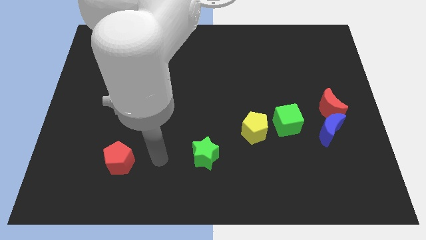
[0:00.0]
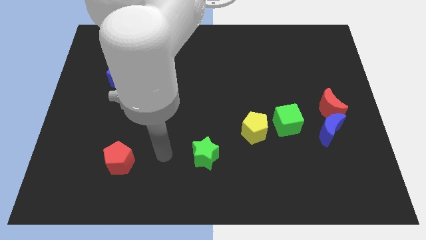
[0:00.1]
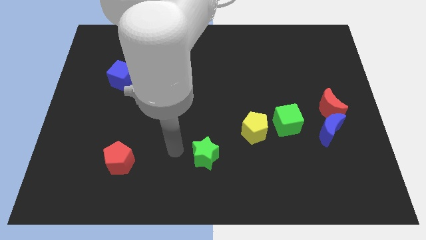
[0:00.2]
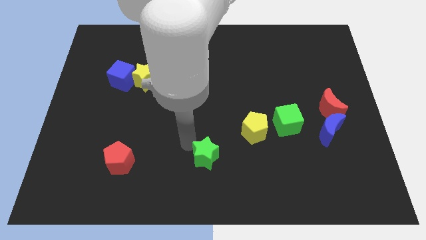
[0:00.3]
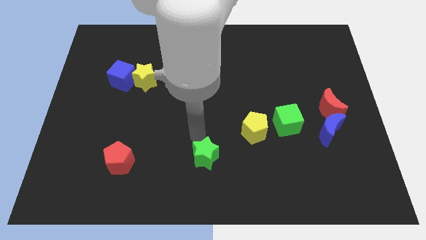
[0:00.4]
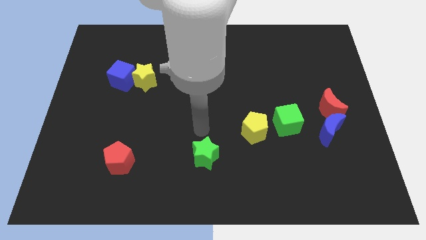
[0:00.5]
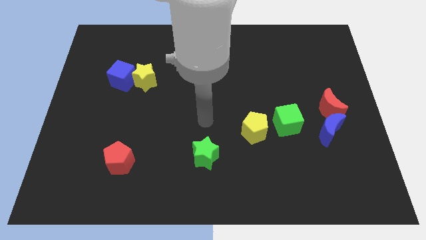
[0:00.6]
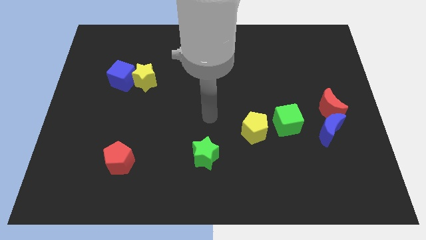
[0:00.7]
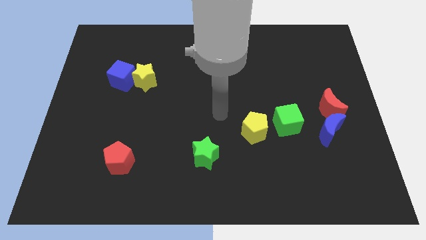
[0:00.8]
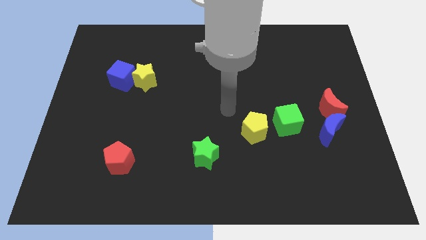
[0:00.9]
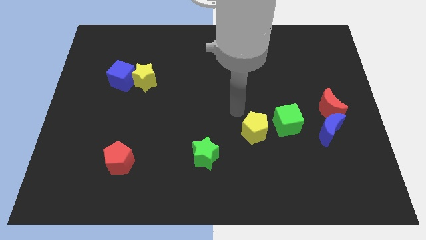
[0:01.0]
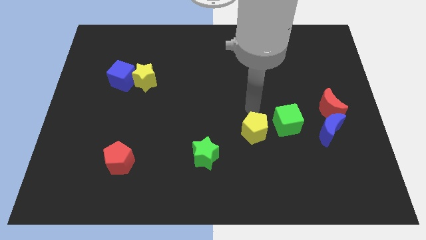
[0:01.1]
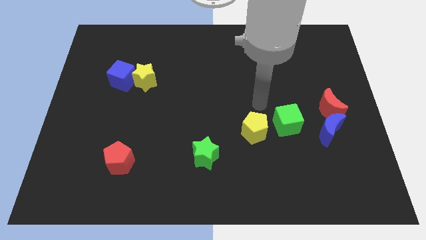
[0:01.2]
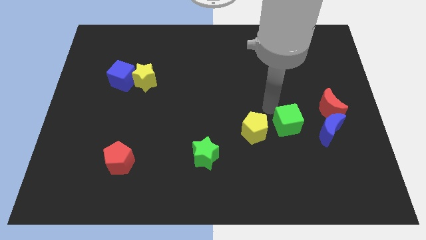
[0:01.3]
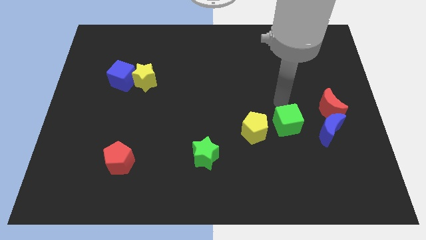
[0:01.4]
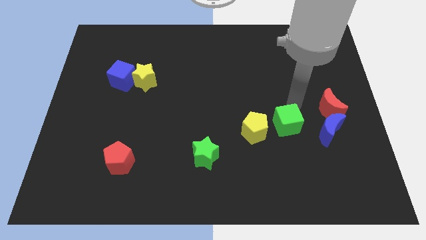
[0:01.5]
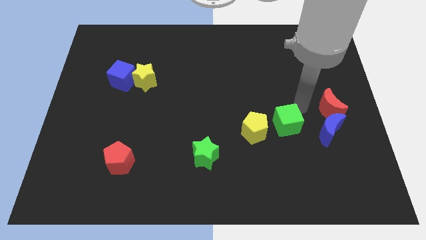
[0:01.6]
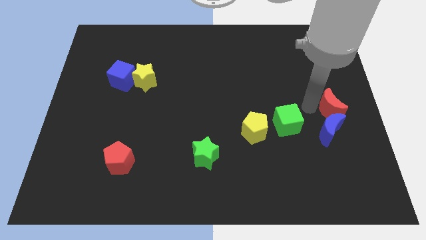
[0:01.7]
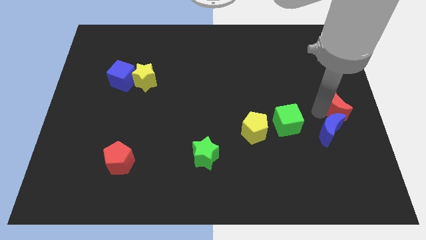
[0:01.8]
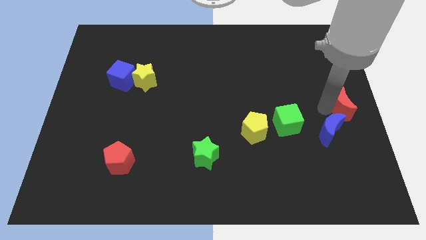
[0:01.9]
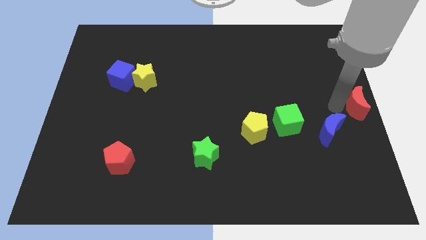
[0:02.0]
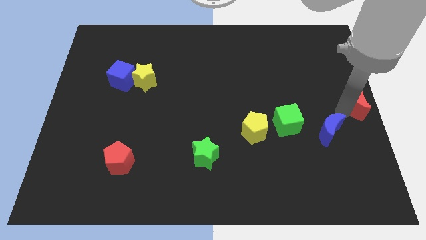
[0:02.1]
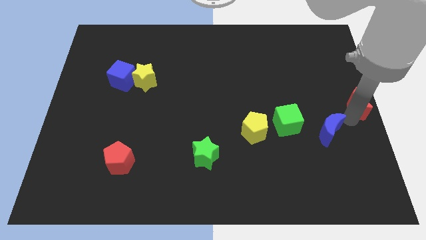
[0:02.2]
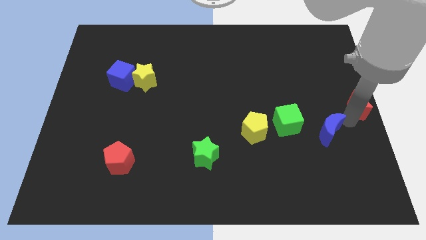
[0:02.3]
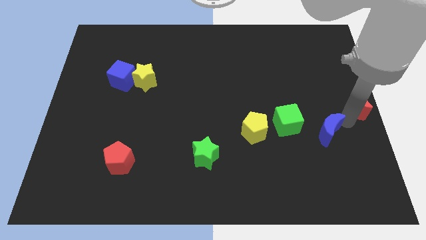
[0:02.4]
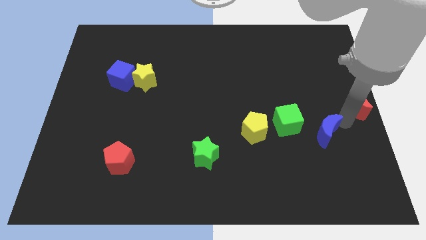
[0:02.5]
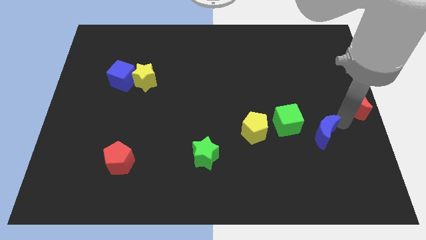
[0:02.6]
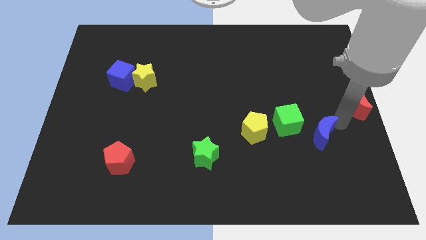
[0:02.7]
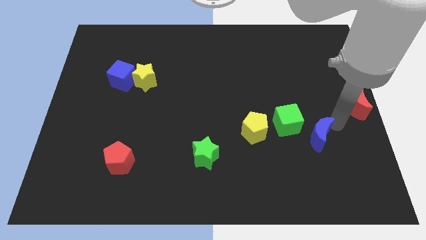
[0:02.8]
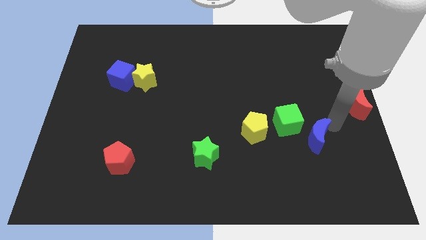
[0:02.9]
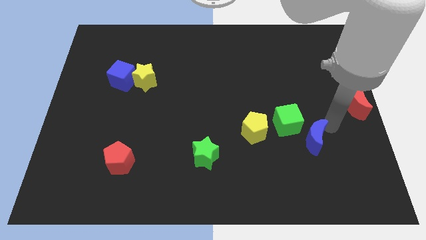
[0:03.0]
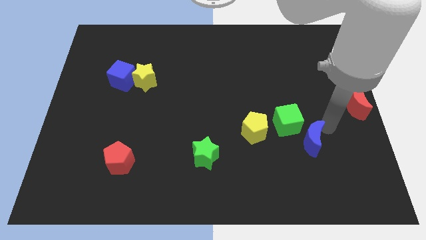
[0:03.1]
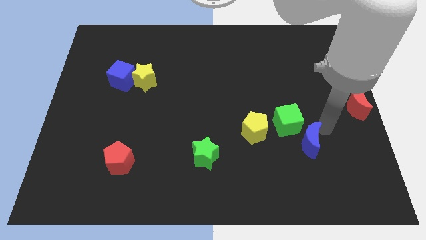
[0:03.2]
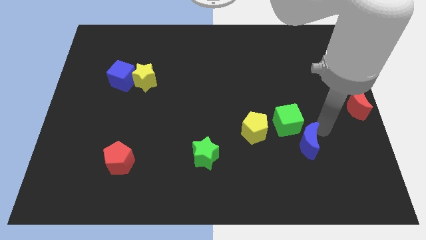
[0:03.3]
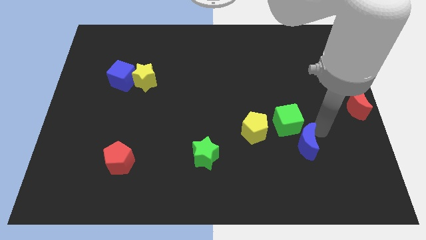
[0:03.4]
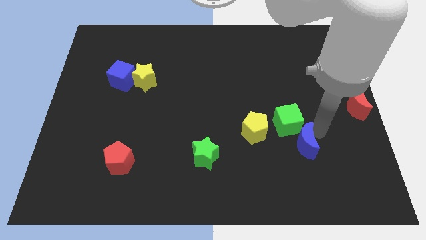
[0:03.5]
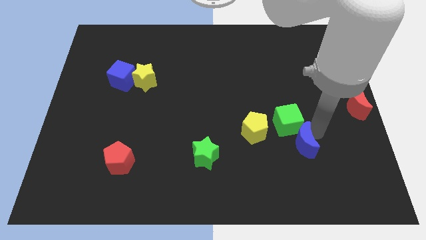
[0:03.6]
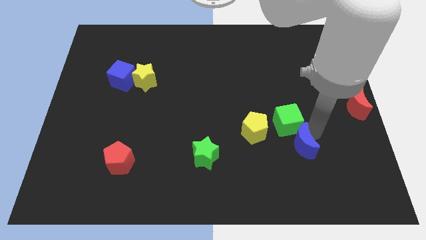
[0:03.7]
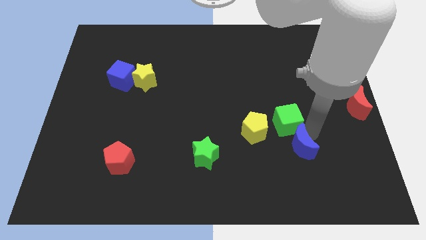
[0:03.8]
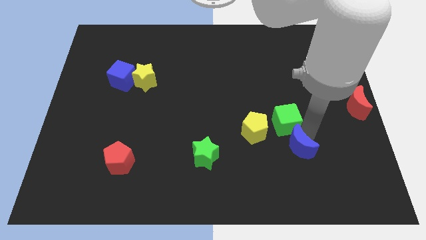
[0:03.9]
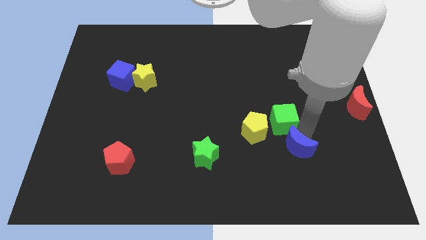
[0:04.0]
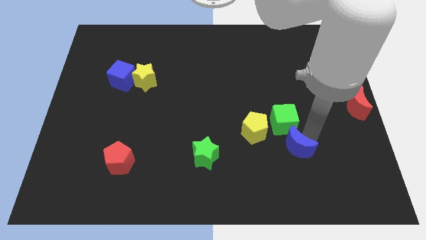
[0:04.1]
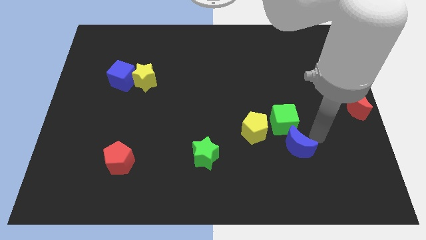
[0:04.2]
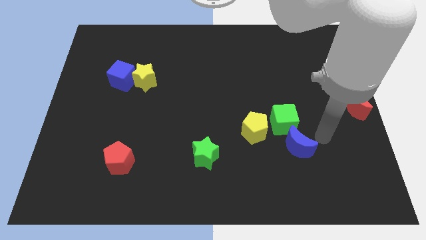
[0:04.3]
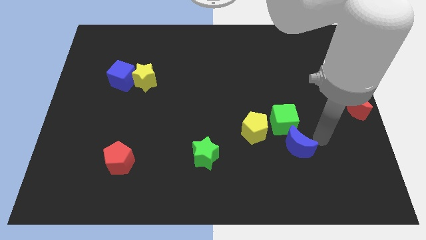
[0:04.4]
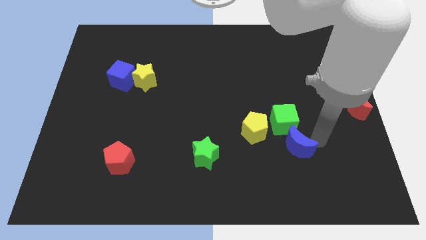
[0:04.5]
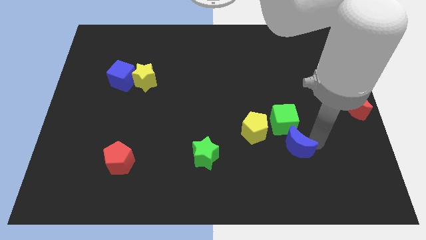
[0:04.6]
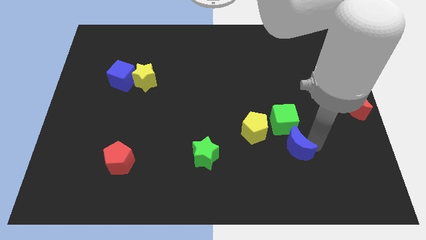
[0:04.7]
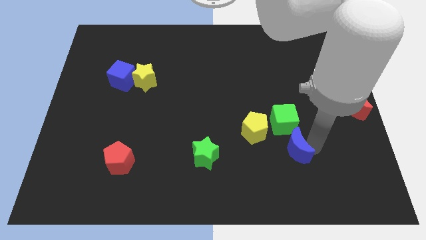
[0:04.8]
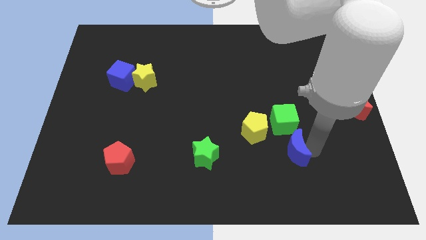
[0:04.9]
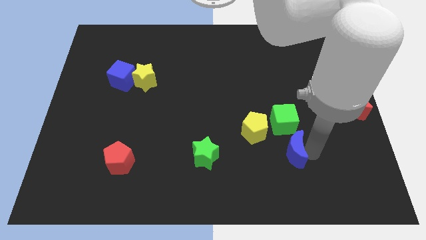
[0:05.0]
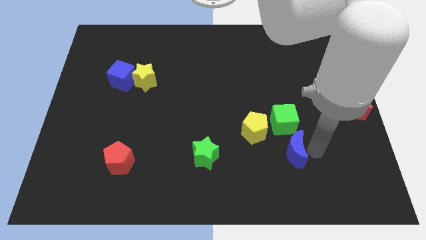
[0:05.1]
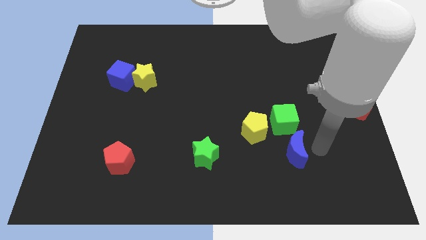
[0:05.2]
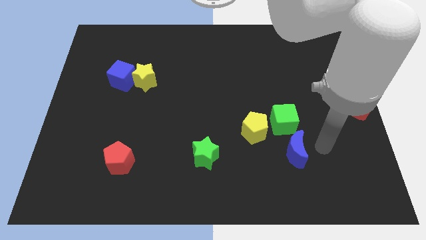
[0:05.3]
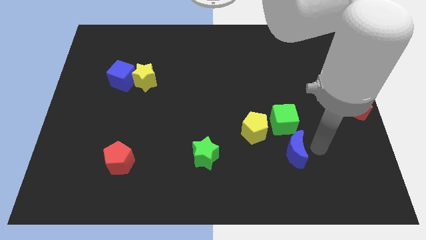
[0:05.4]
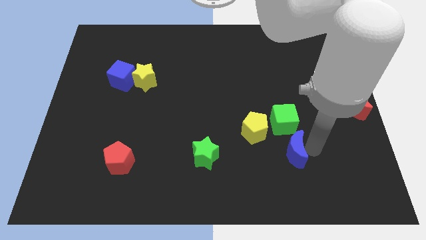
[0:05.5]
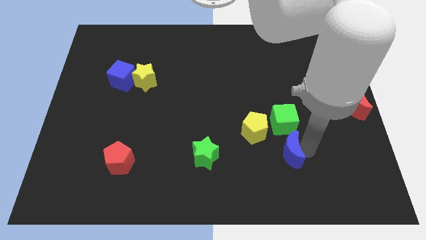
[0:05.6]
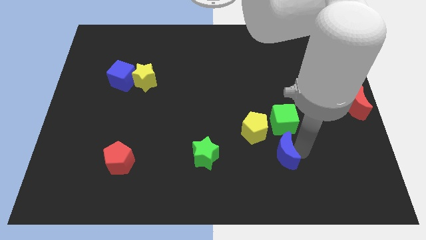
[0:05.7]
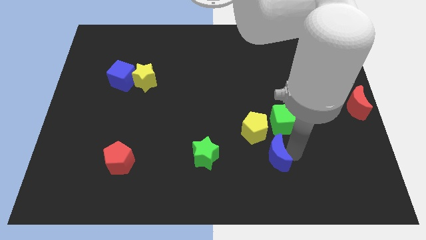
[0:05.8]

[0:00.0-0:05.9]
slide the blue moon right of the green star
